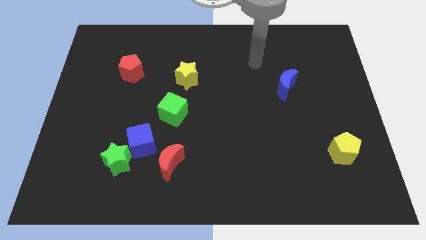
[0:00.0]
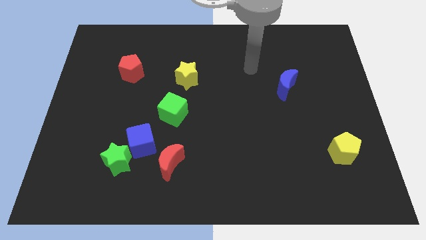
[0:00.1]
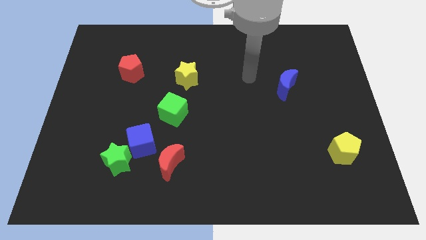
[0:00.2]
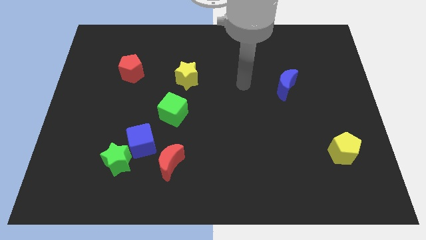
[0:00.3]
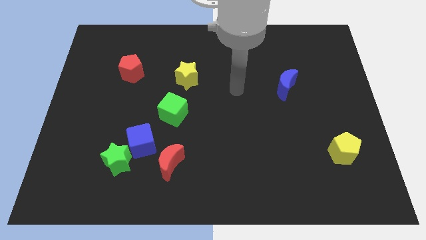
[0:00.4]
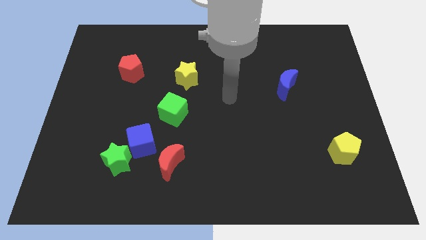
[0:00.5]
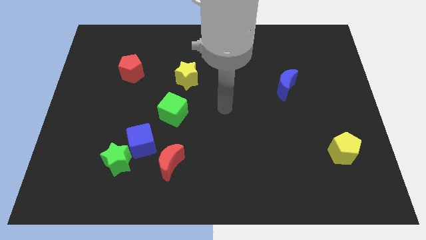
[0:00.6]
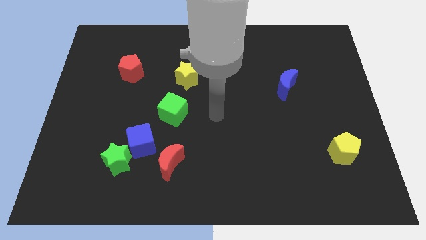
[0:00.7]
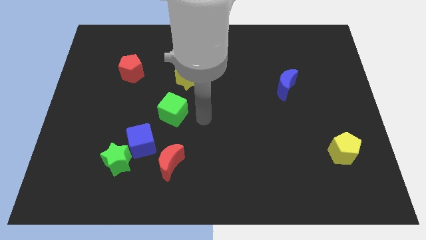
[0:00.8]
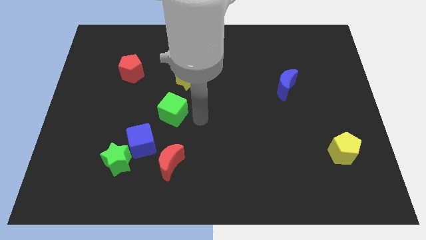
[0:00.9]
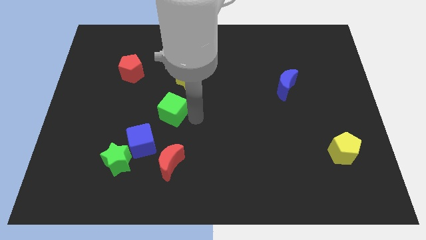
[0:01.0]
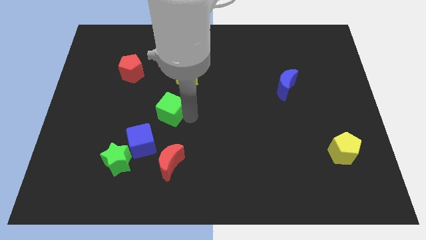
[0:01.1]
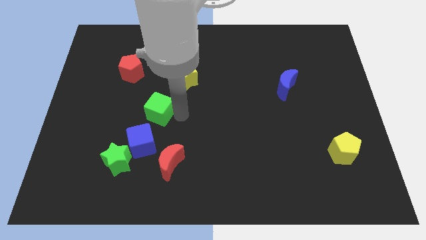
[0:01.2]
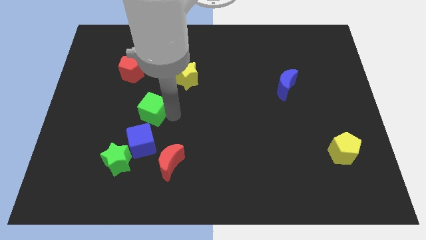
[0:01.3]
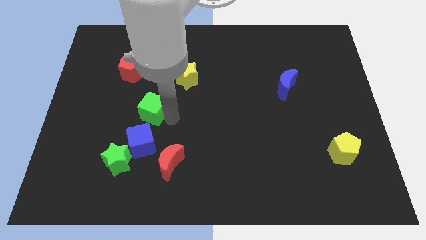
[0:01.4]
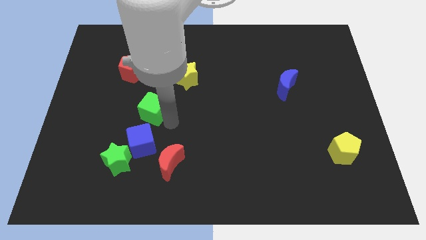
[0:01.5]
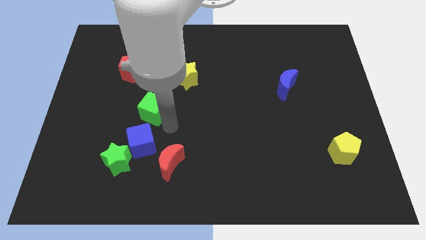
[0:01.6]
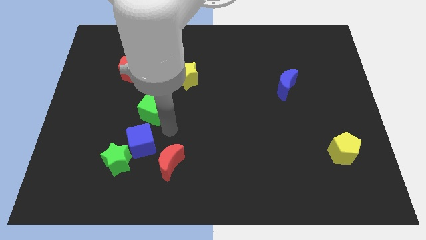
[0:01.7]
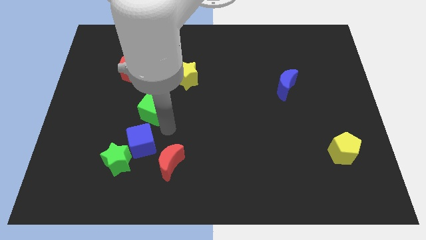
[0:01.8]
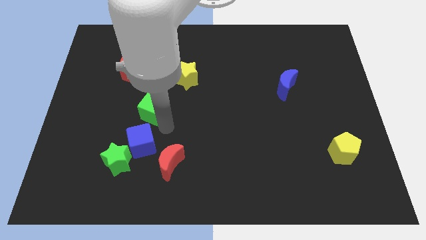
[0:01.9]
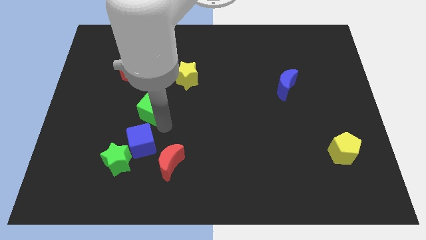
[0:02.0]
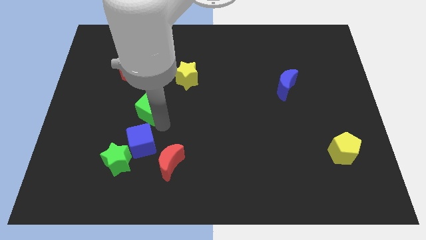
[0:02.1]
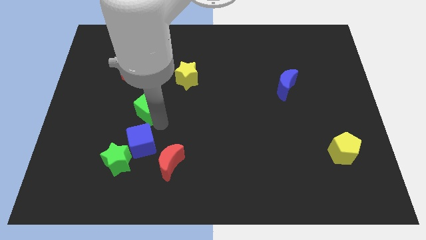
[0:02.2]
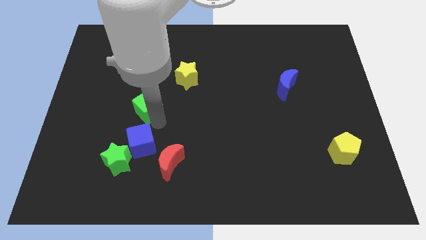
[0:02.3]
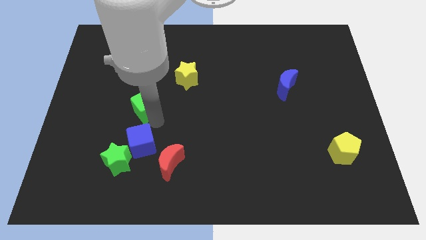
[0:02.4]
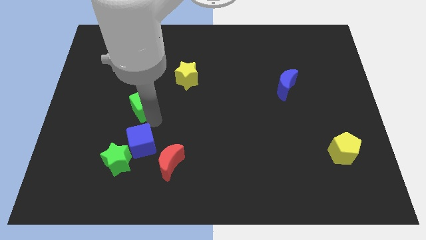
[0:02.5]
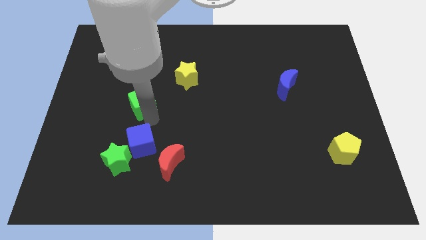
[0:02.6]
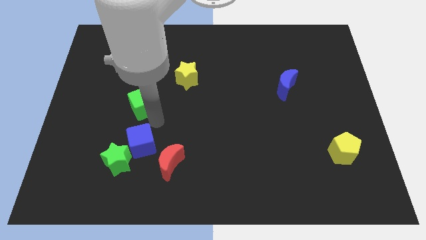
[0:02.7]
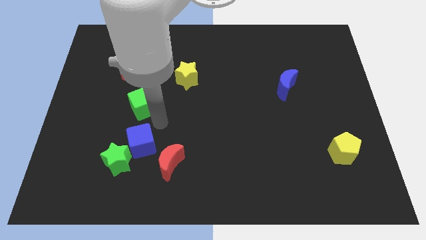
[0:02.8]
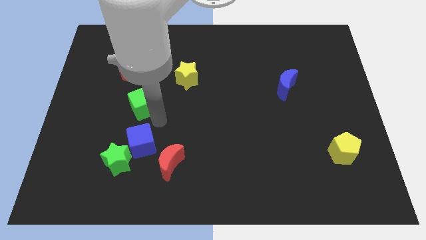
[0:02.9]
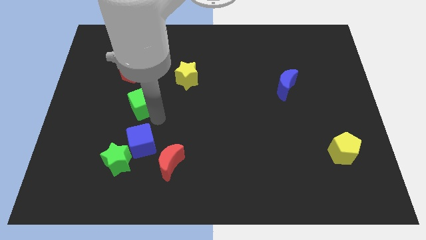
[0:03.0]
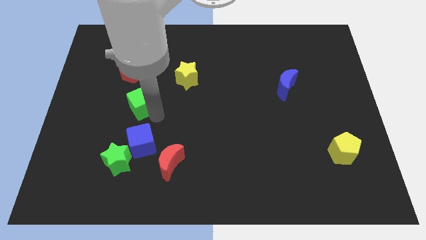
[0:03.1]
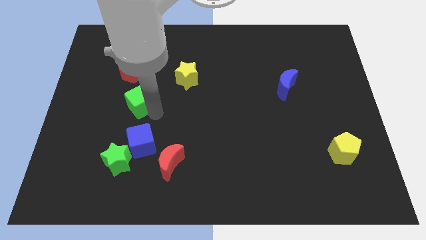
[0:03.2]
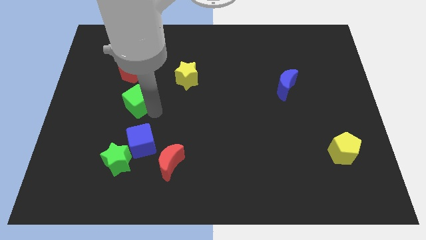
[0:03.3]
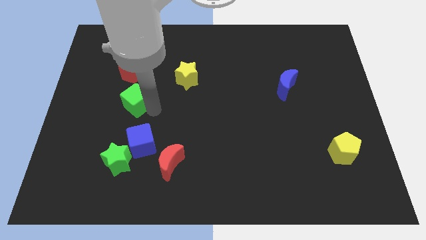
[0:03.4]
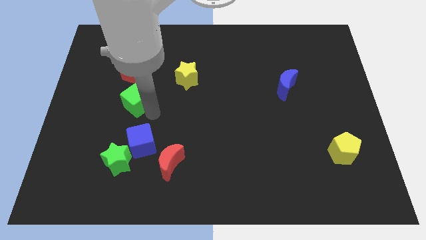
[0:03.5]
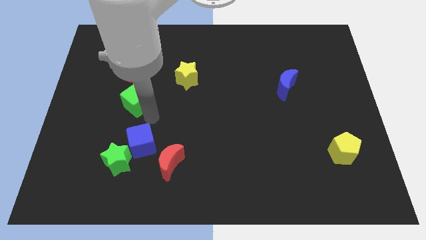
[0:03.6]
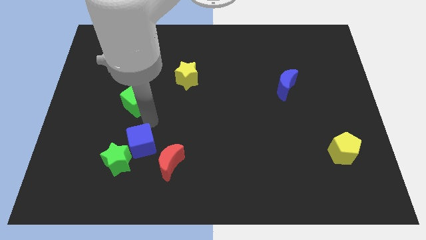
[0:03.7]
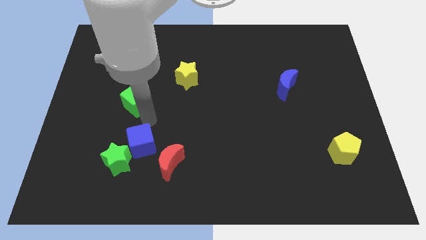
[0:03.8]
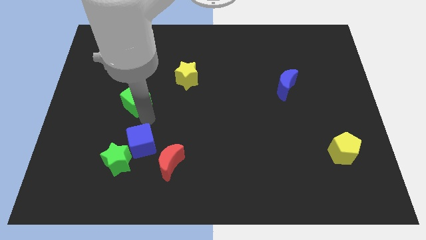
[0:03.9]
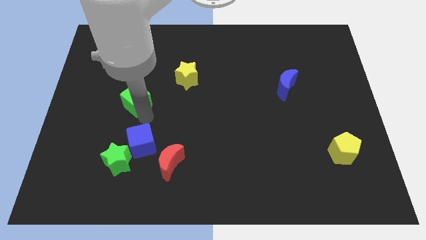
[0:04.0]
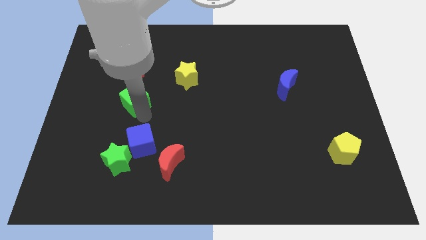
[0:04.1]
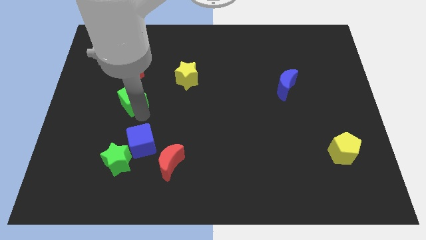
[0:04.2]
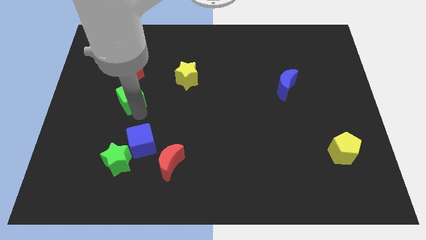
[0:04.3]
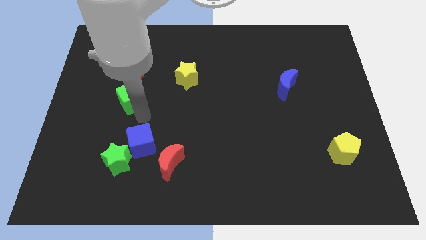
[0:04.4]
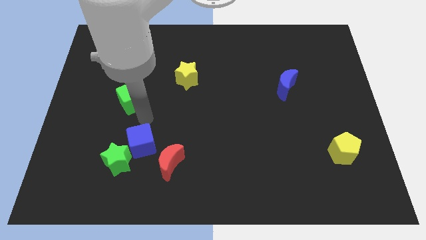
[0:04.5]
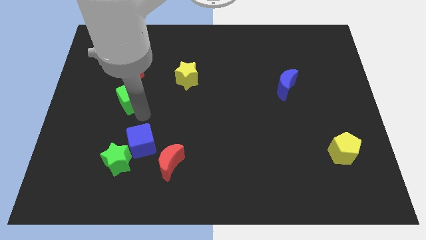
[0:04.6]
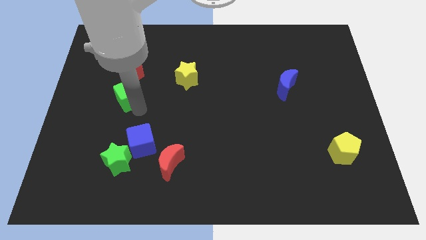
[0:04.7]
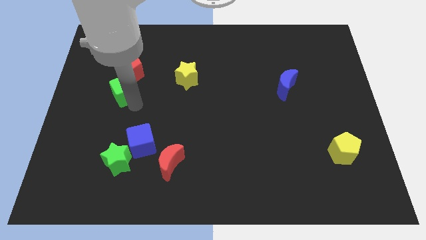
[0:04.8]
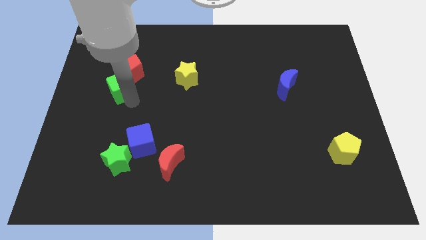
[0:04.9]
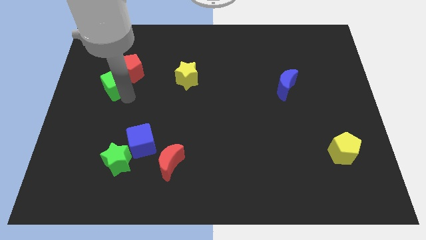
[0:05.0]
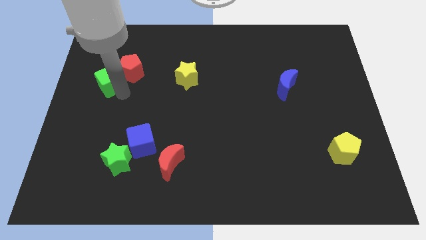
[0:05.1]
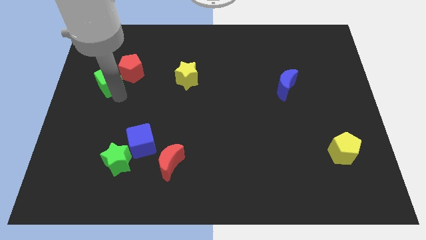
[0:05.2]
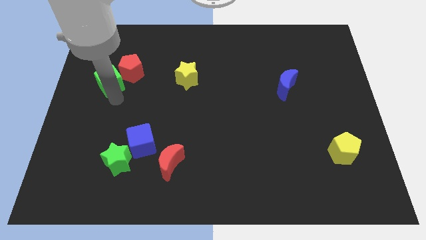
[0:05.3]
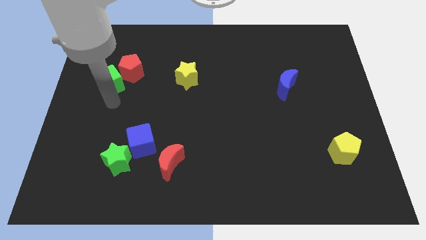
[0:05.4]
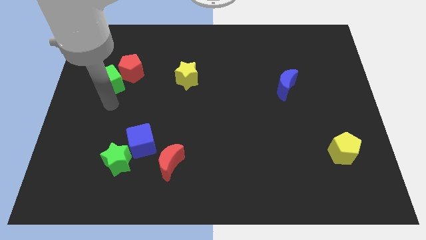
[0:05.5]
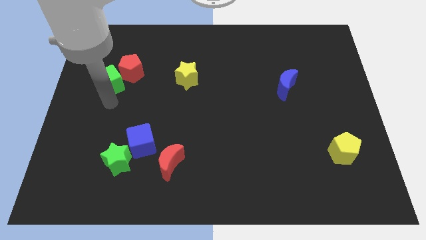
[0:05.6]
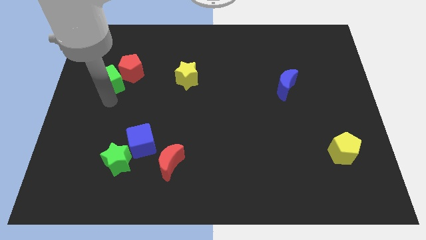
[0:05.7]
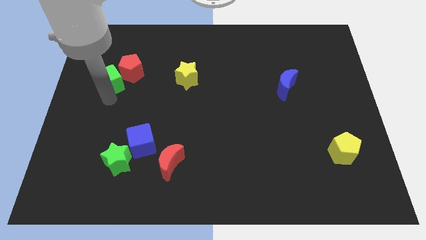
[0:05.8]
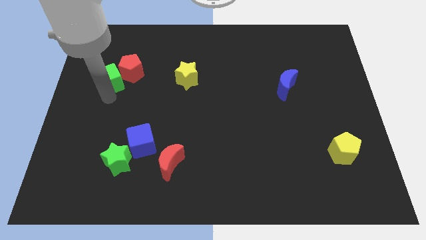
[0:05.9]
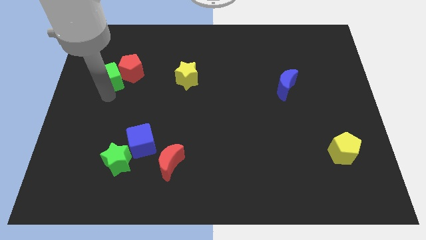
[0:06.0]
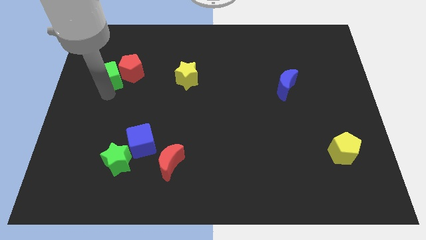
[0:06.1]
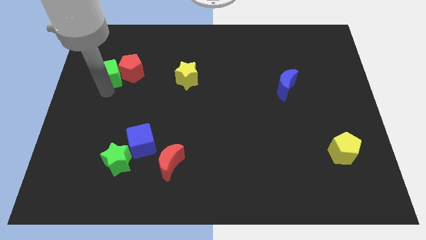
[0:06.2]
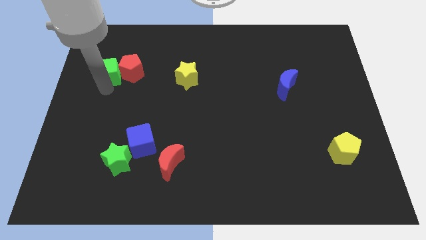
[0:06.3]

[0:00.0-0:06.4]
slide the green cube diagonally up and to the left of the red pentagon
